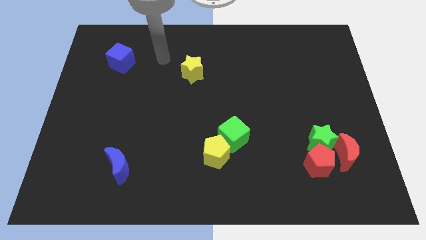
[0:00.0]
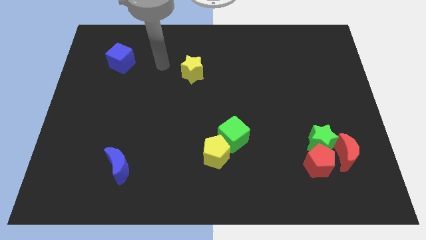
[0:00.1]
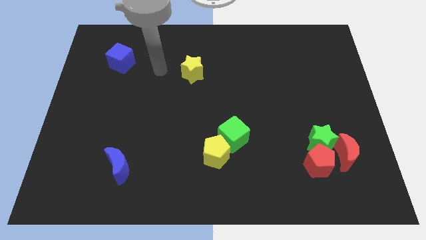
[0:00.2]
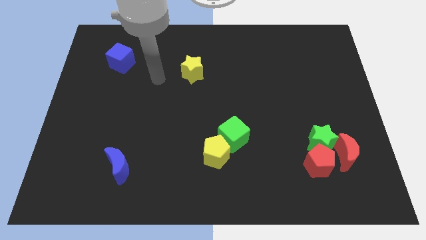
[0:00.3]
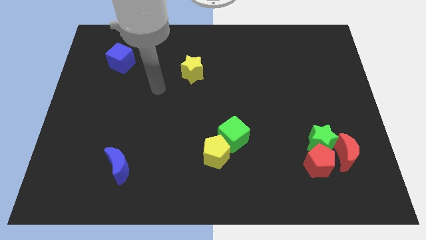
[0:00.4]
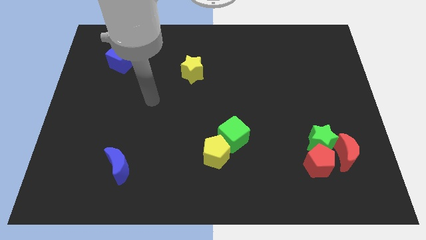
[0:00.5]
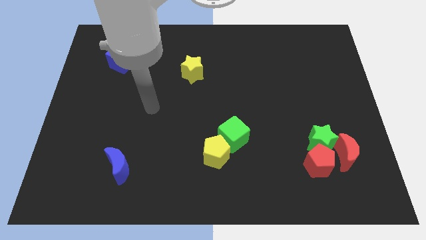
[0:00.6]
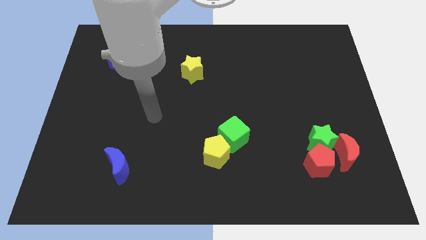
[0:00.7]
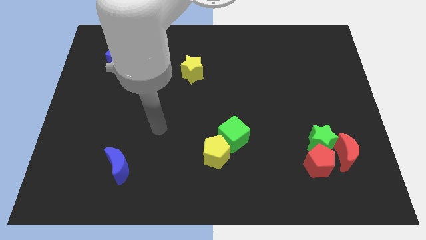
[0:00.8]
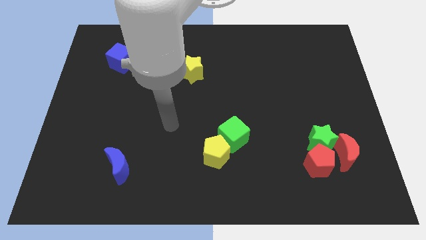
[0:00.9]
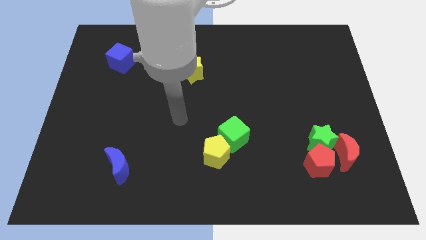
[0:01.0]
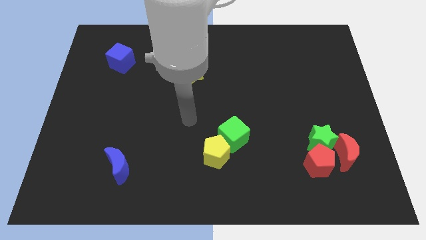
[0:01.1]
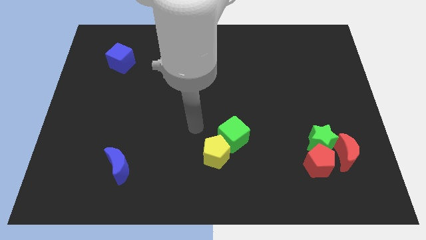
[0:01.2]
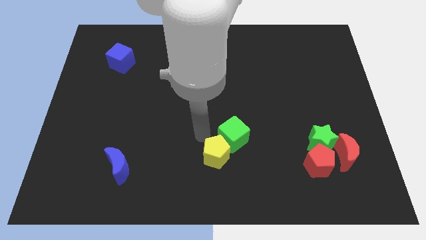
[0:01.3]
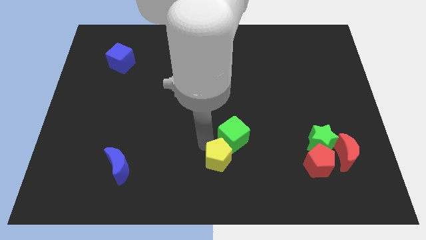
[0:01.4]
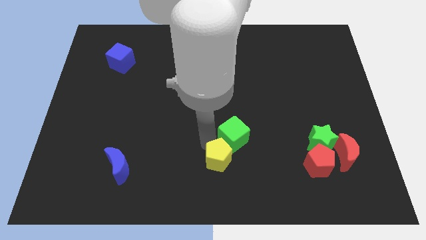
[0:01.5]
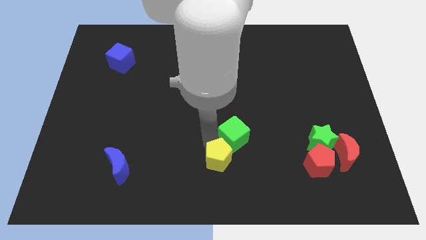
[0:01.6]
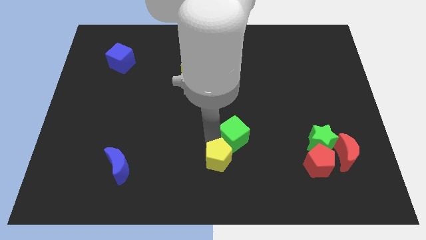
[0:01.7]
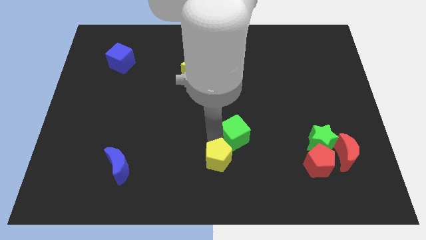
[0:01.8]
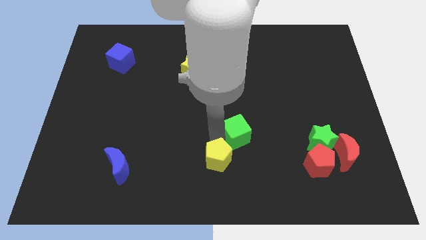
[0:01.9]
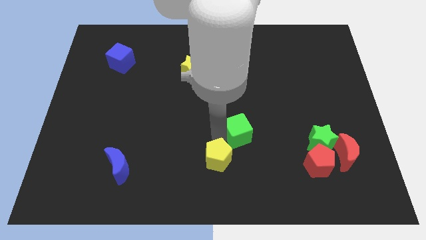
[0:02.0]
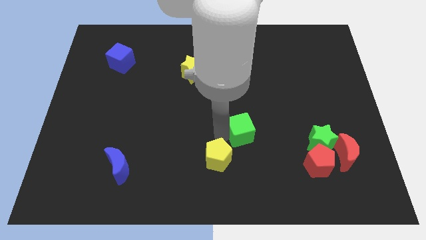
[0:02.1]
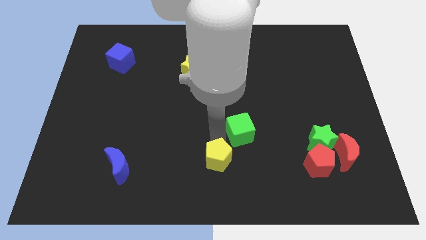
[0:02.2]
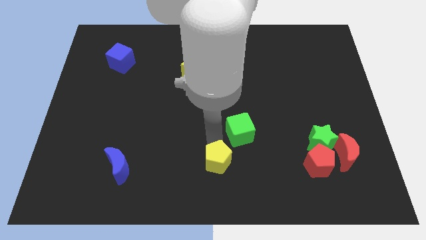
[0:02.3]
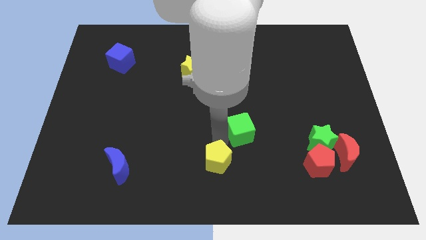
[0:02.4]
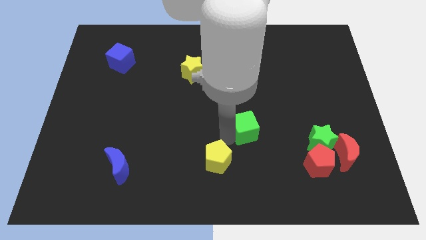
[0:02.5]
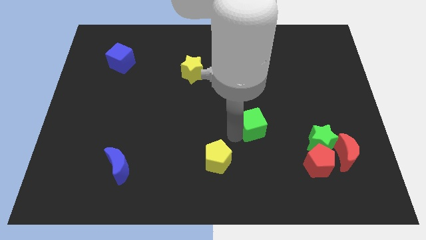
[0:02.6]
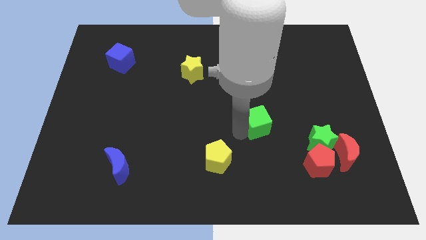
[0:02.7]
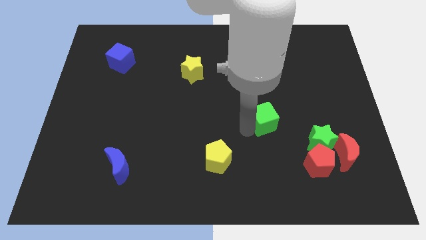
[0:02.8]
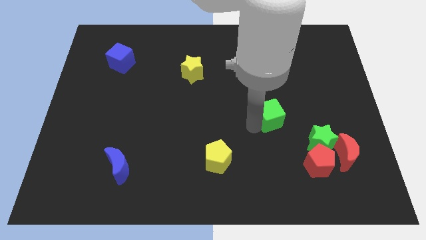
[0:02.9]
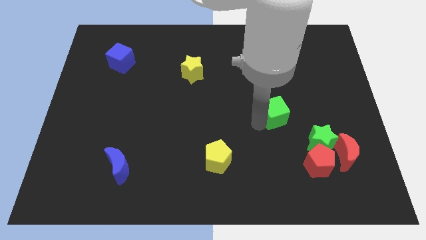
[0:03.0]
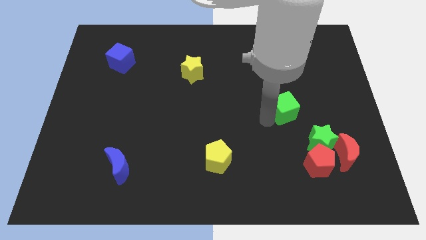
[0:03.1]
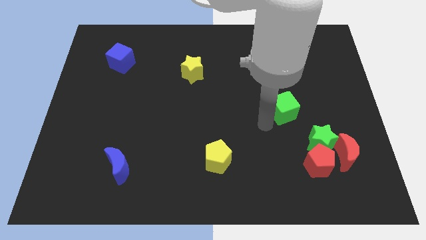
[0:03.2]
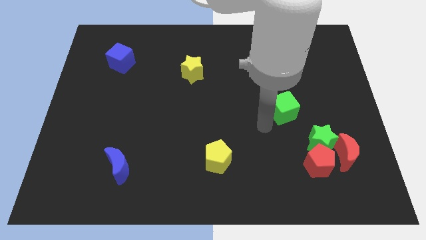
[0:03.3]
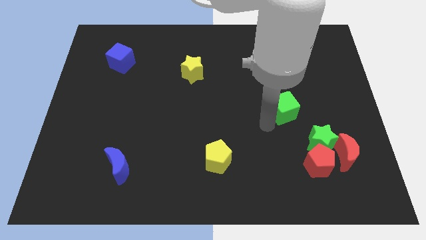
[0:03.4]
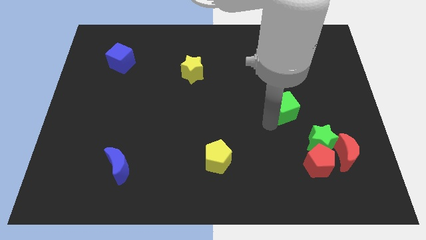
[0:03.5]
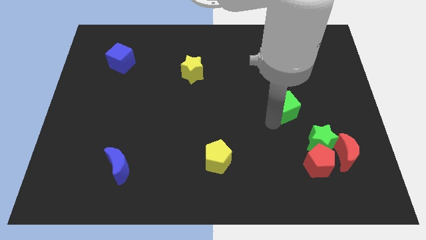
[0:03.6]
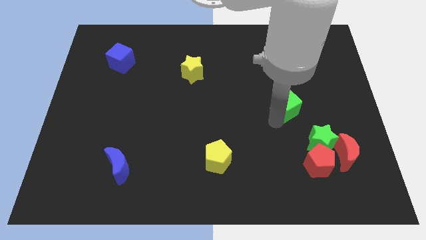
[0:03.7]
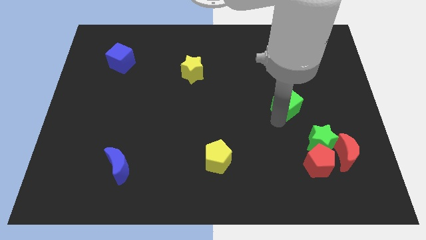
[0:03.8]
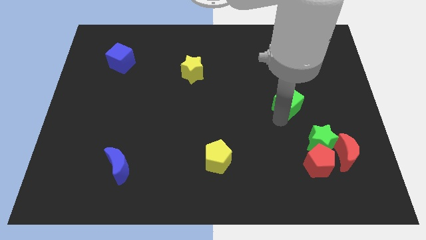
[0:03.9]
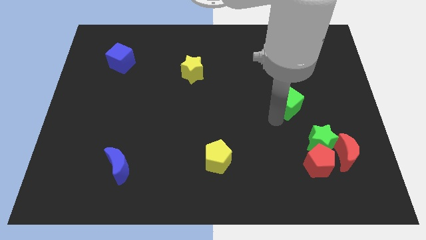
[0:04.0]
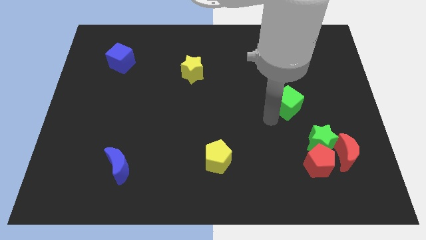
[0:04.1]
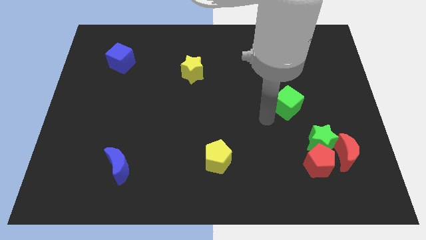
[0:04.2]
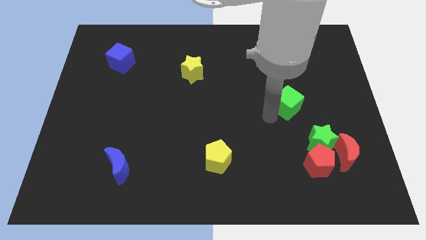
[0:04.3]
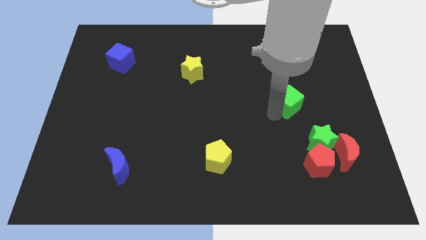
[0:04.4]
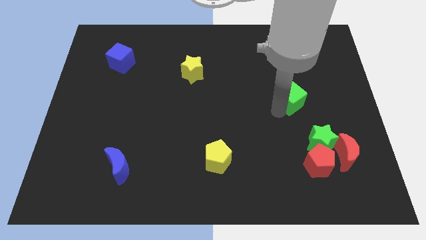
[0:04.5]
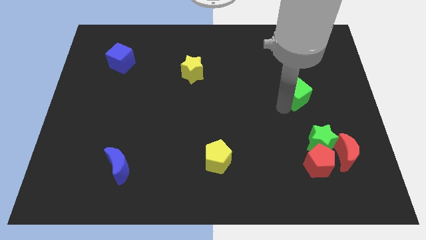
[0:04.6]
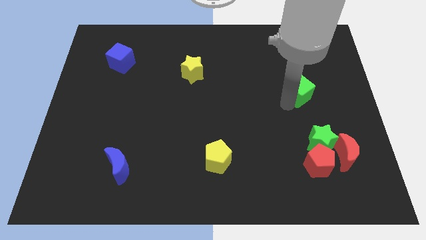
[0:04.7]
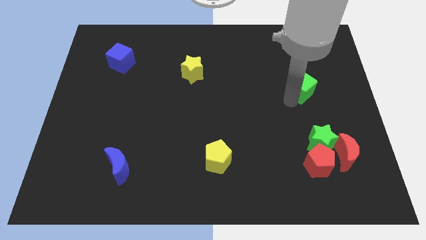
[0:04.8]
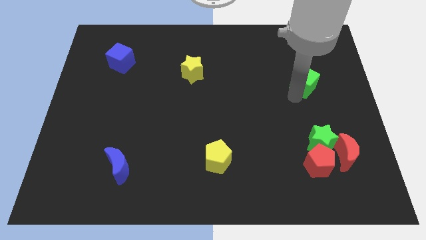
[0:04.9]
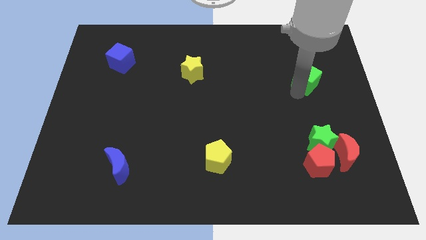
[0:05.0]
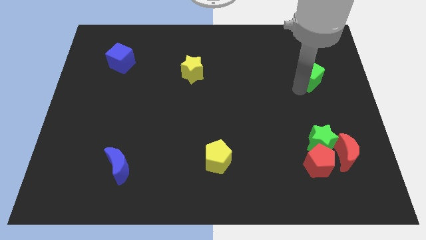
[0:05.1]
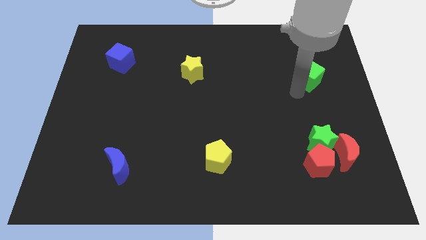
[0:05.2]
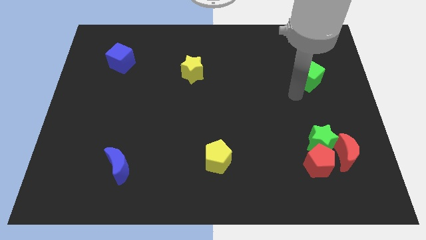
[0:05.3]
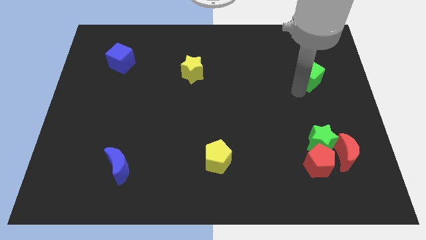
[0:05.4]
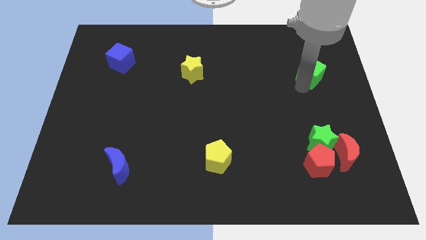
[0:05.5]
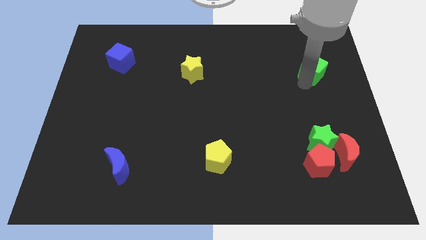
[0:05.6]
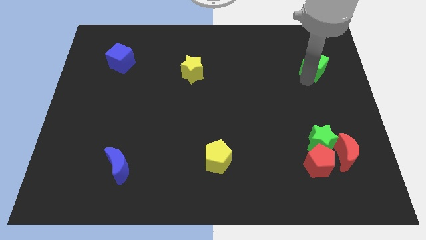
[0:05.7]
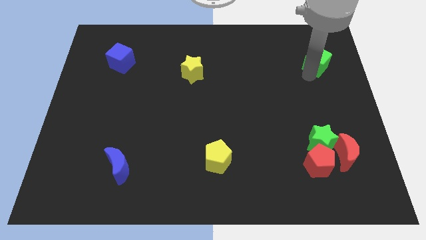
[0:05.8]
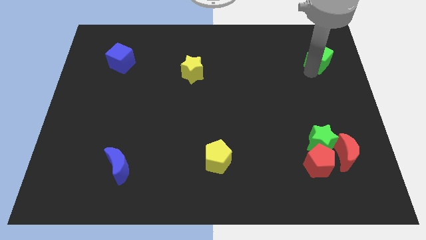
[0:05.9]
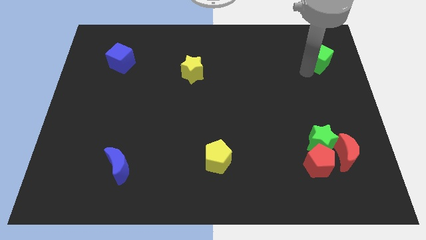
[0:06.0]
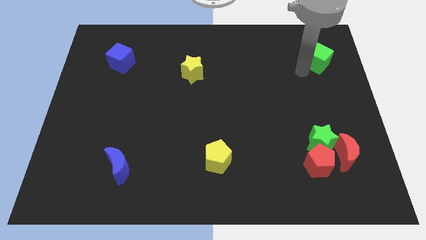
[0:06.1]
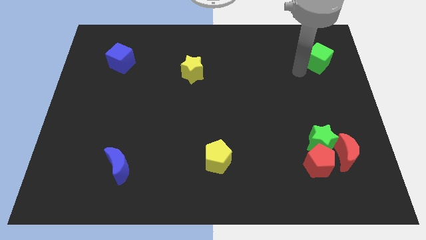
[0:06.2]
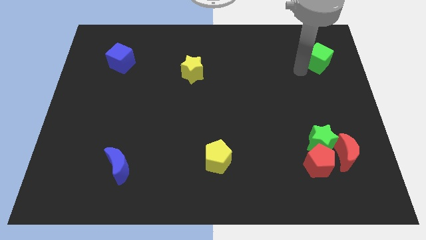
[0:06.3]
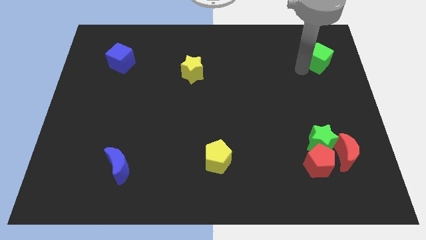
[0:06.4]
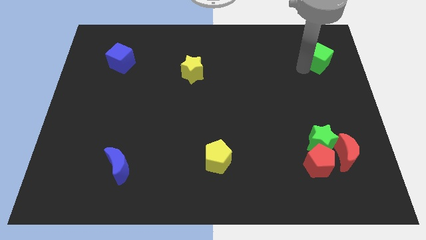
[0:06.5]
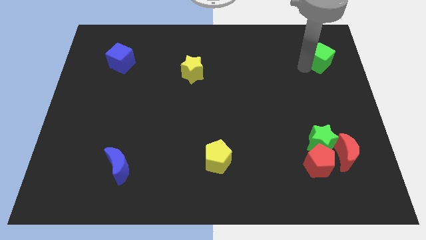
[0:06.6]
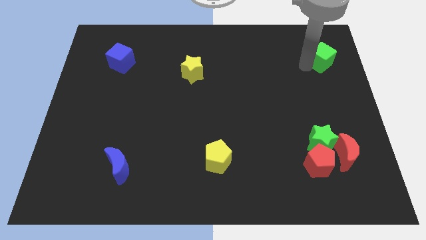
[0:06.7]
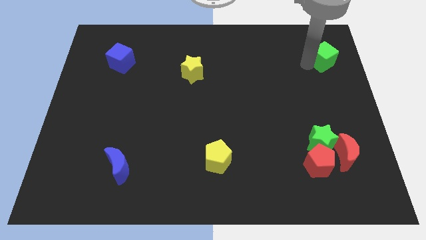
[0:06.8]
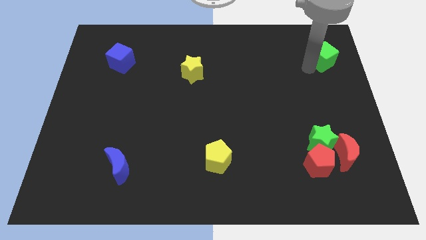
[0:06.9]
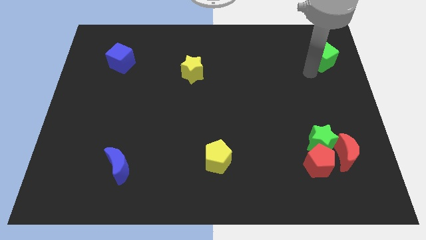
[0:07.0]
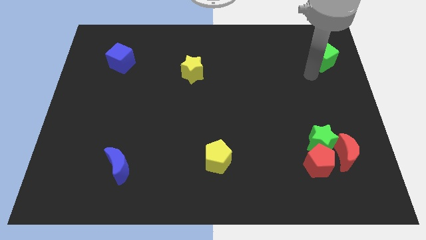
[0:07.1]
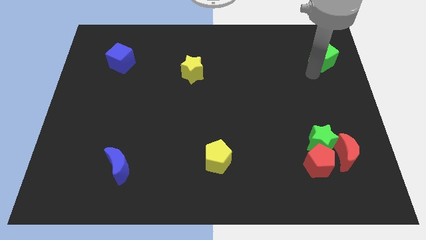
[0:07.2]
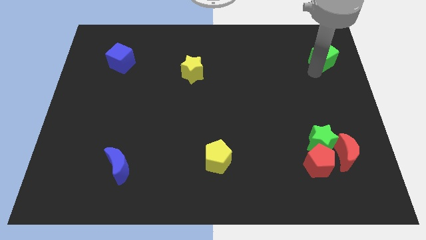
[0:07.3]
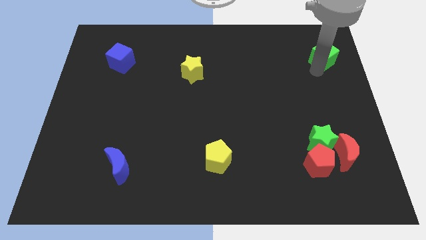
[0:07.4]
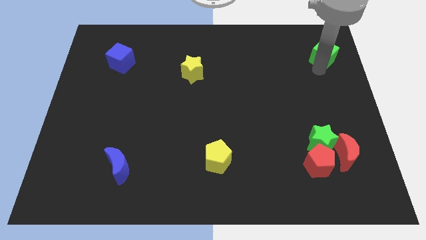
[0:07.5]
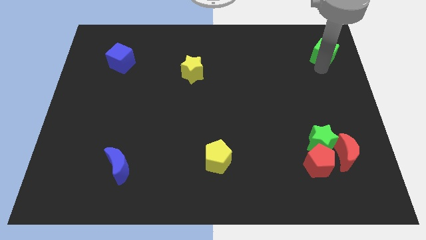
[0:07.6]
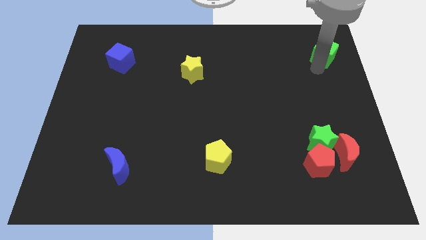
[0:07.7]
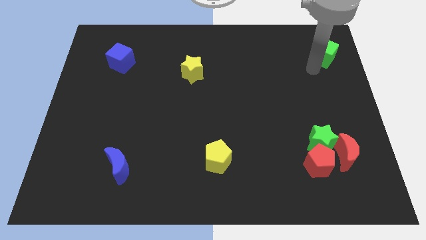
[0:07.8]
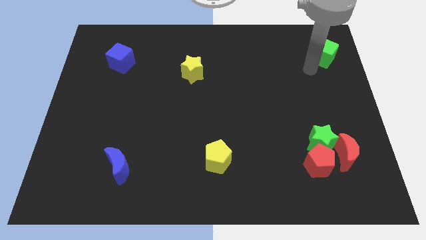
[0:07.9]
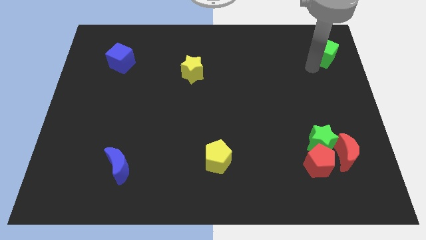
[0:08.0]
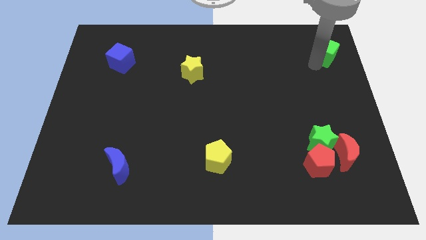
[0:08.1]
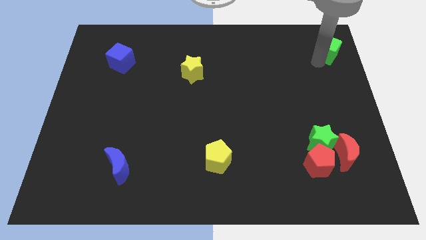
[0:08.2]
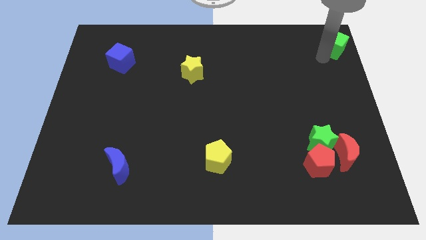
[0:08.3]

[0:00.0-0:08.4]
put the green cube to the top right
